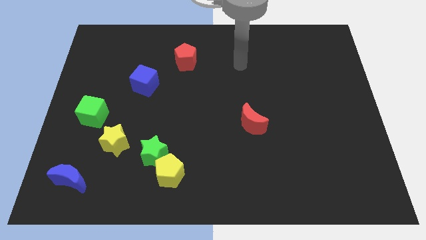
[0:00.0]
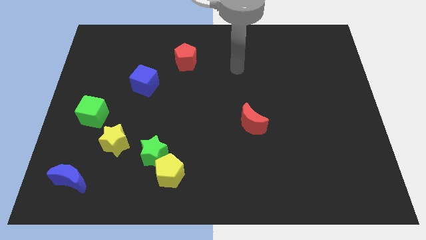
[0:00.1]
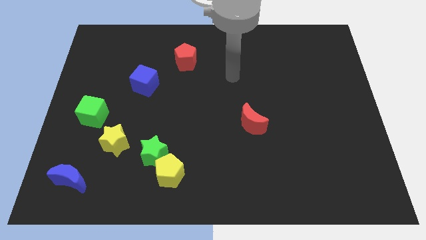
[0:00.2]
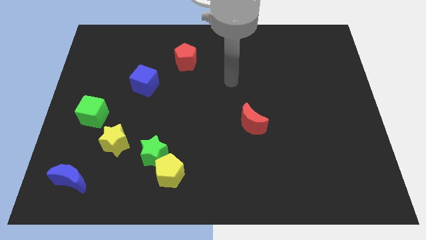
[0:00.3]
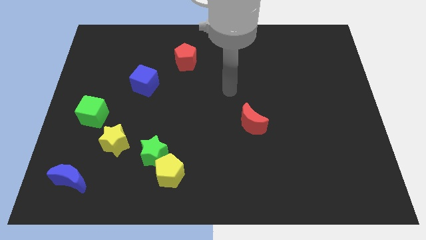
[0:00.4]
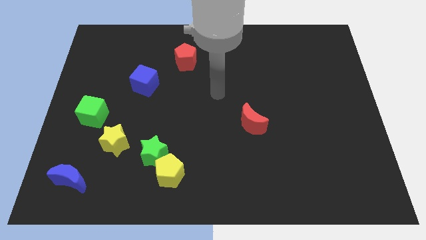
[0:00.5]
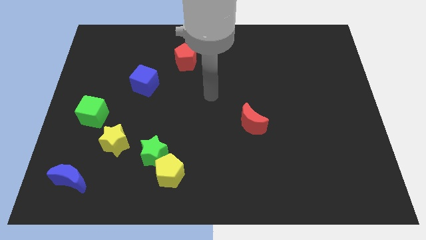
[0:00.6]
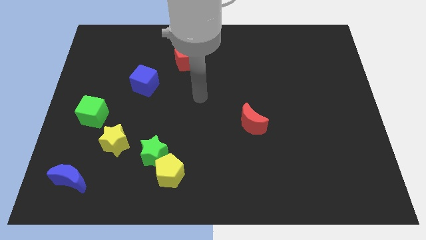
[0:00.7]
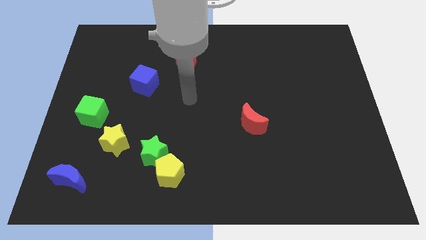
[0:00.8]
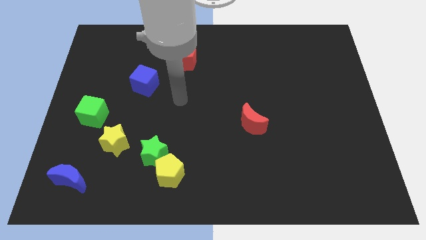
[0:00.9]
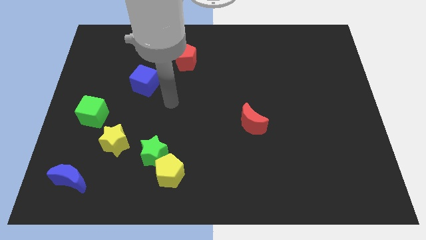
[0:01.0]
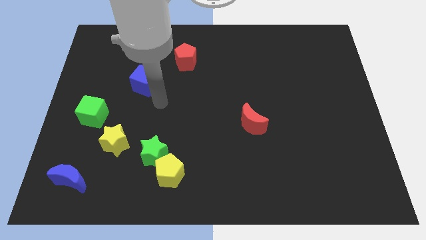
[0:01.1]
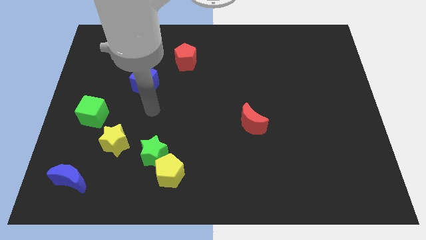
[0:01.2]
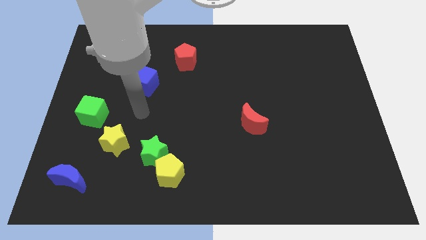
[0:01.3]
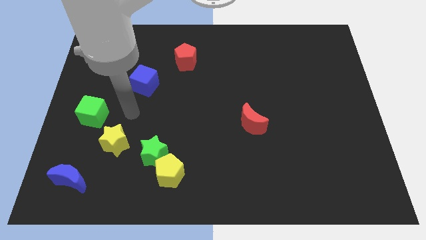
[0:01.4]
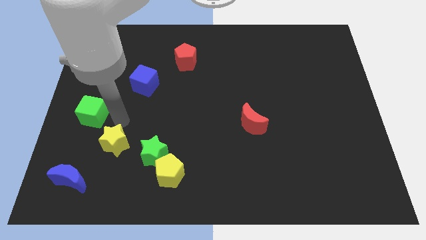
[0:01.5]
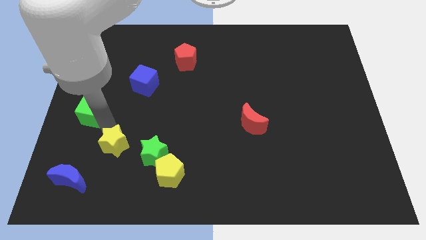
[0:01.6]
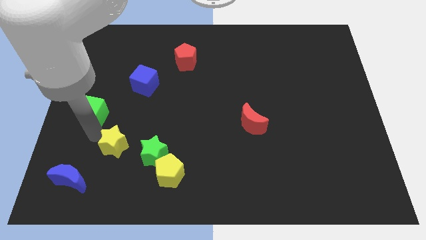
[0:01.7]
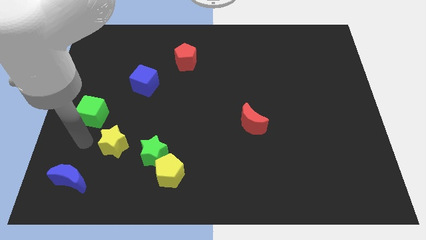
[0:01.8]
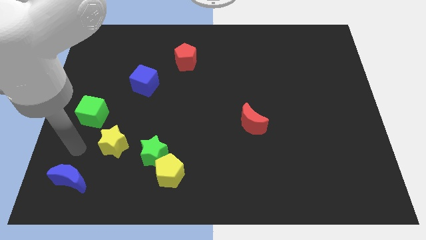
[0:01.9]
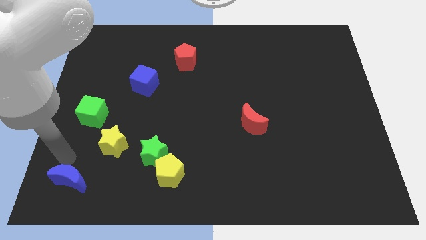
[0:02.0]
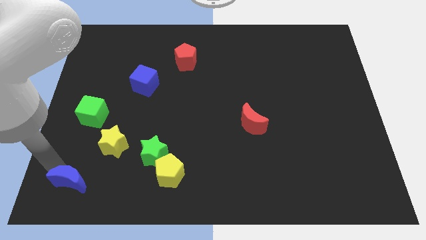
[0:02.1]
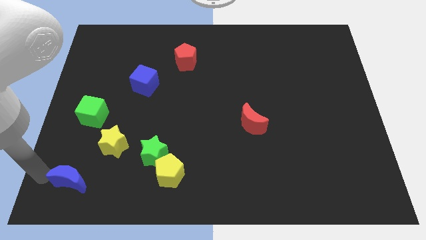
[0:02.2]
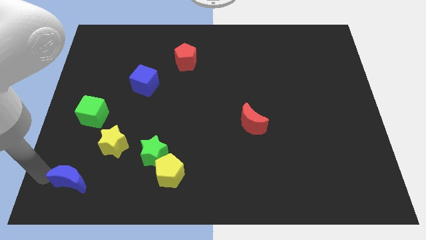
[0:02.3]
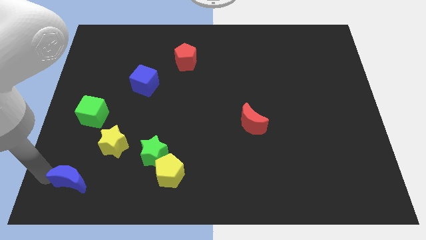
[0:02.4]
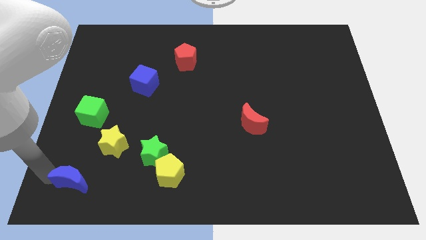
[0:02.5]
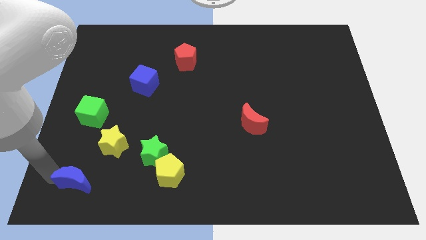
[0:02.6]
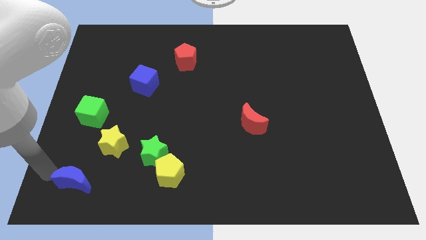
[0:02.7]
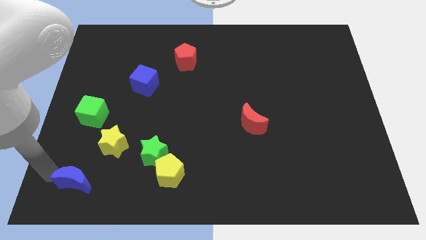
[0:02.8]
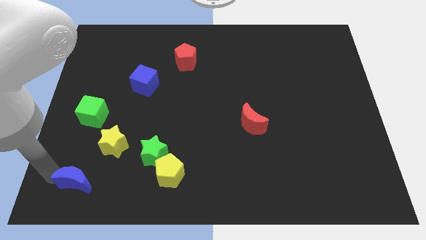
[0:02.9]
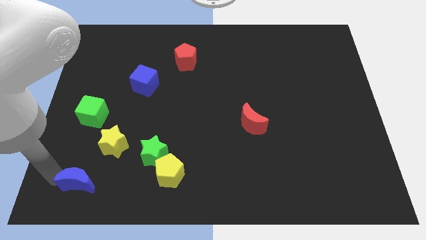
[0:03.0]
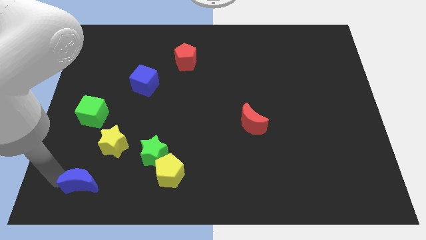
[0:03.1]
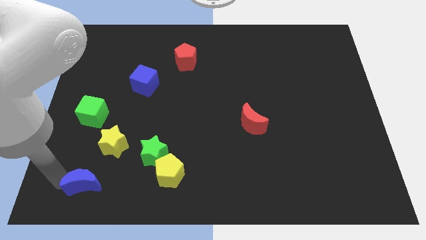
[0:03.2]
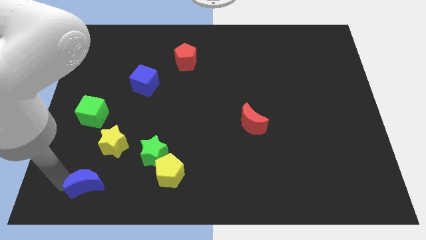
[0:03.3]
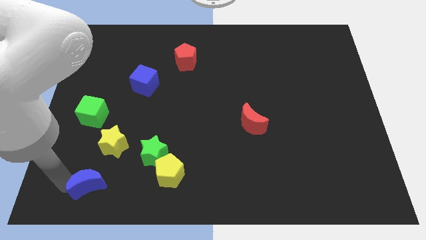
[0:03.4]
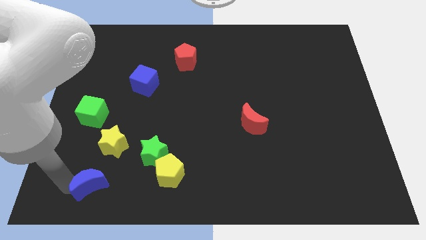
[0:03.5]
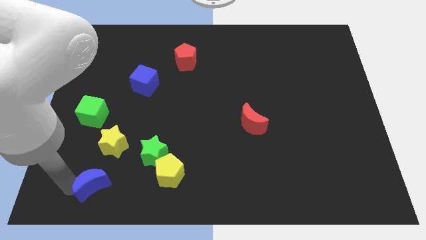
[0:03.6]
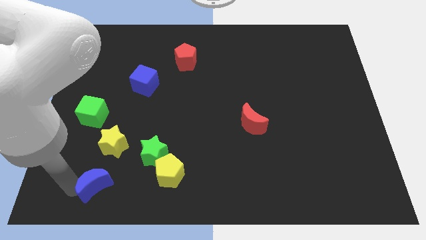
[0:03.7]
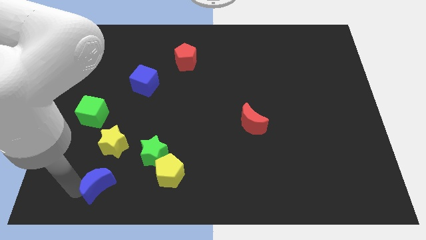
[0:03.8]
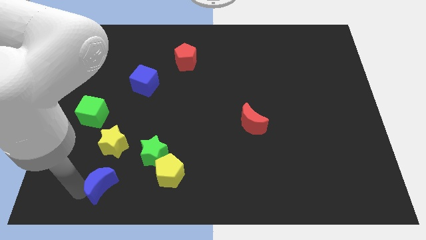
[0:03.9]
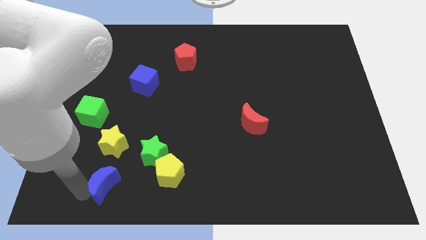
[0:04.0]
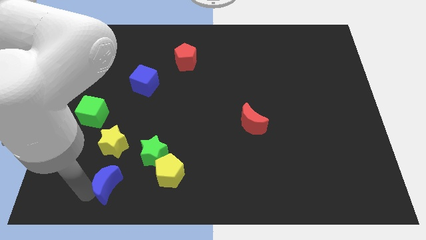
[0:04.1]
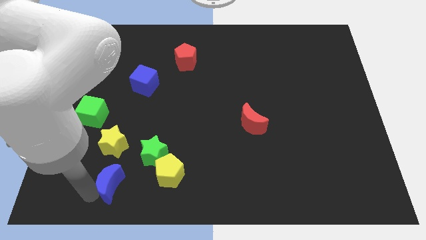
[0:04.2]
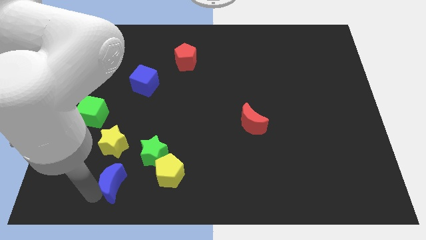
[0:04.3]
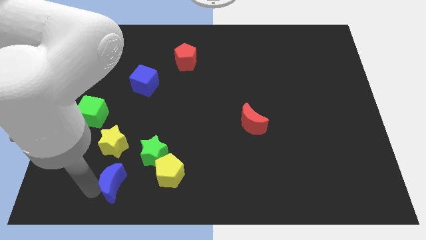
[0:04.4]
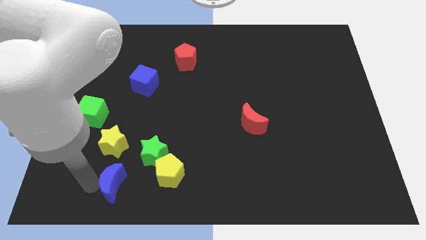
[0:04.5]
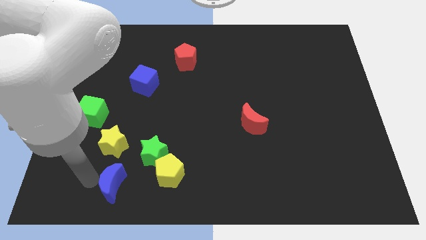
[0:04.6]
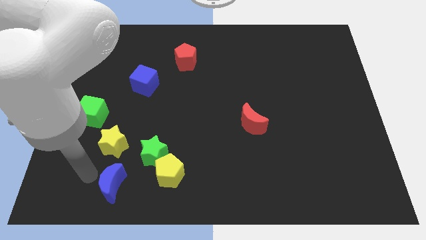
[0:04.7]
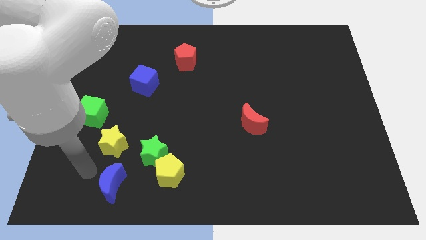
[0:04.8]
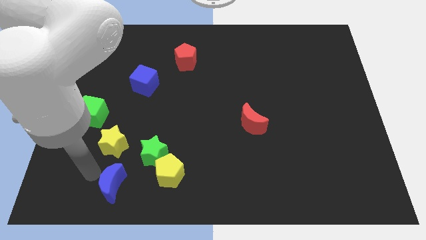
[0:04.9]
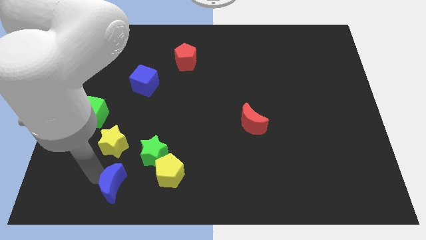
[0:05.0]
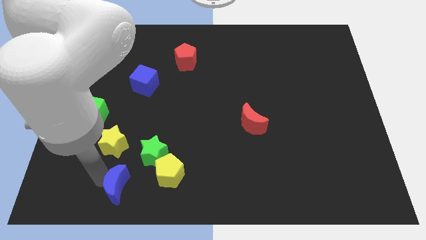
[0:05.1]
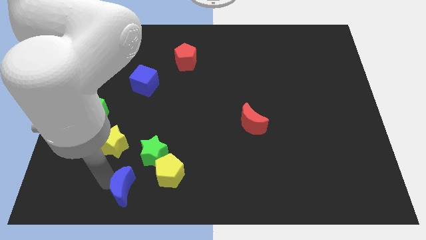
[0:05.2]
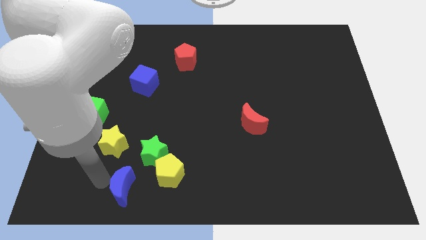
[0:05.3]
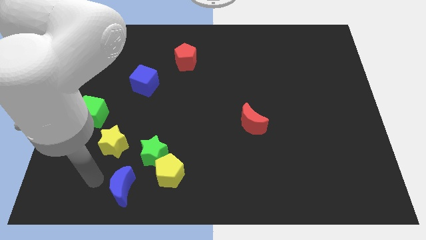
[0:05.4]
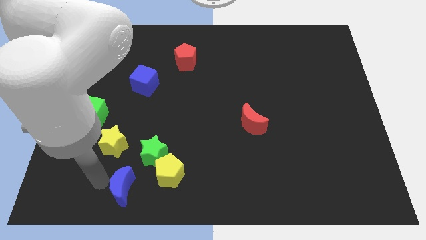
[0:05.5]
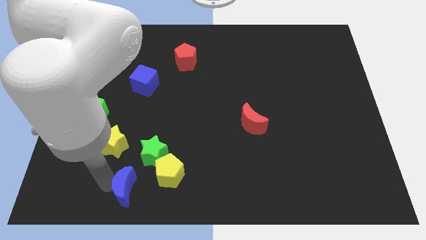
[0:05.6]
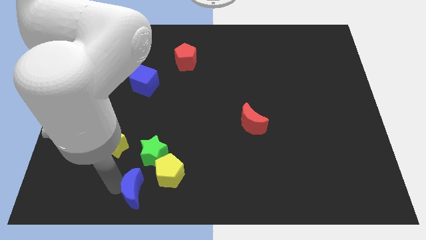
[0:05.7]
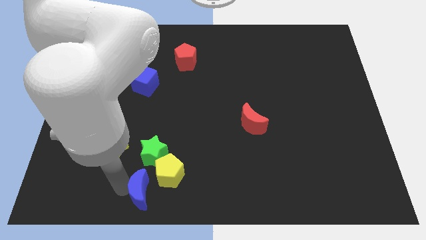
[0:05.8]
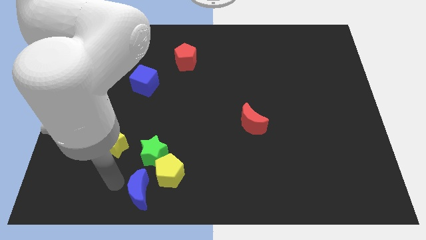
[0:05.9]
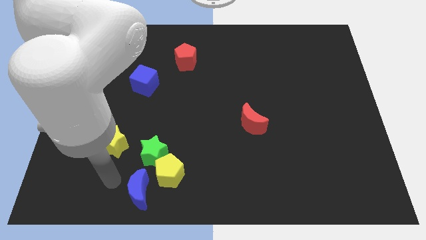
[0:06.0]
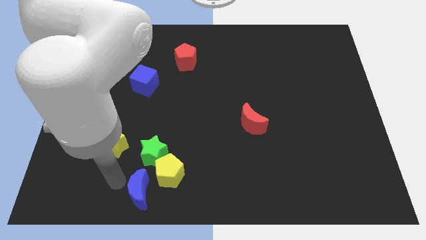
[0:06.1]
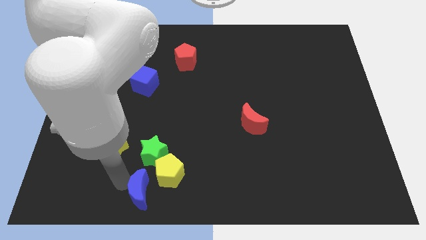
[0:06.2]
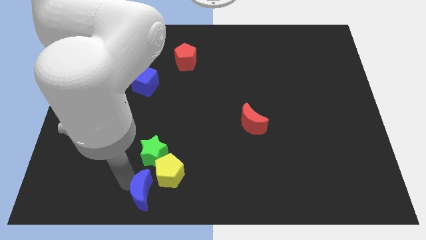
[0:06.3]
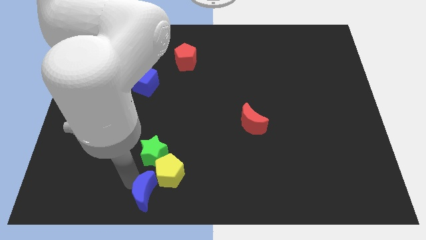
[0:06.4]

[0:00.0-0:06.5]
put the blue moon to the bottom
